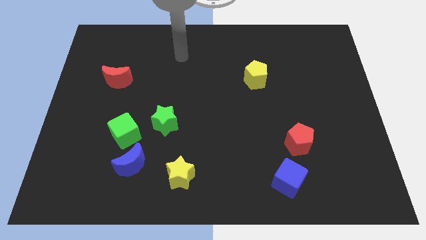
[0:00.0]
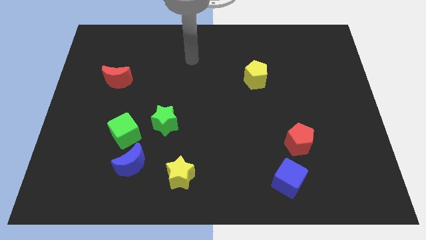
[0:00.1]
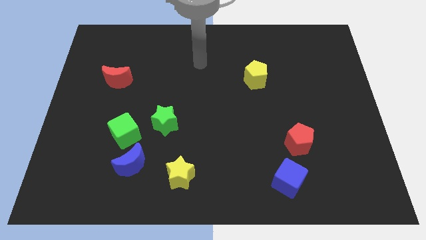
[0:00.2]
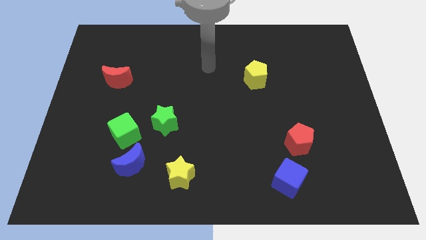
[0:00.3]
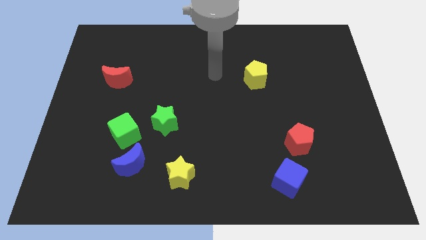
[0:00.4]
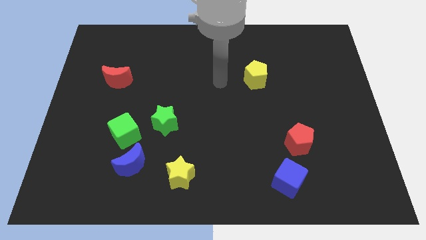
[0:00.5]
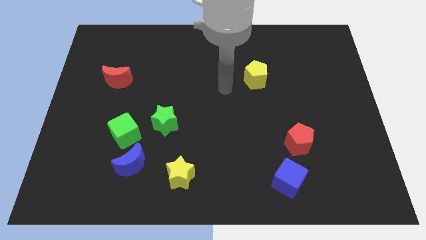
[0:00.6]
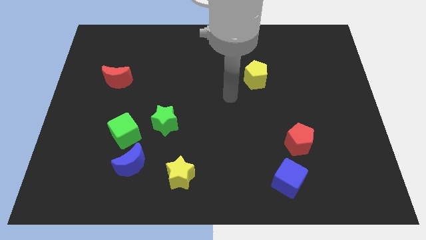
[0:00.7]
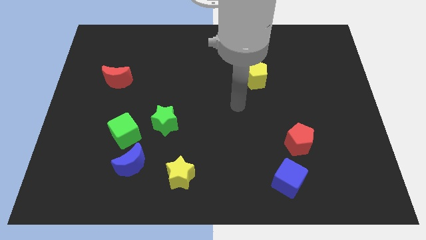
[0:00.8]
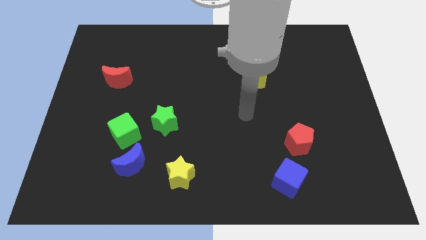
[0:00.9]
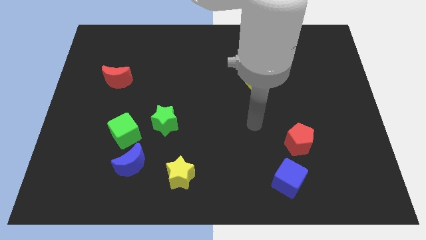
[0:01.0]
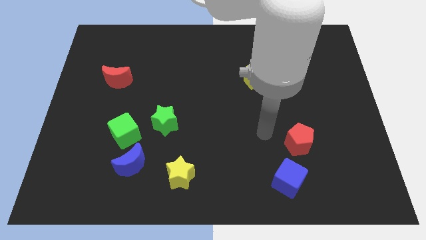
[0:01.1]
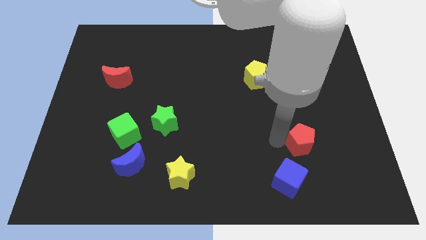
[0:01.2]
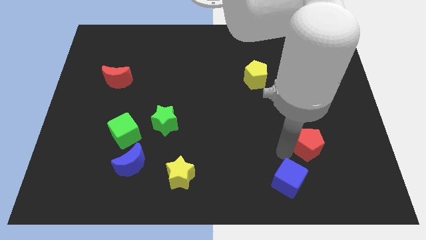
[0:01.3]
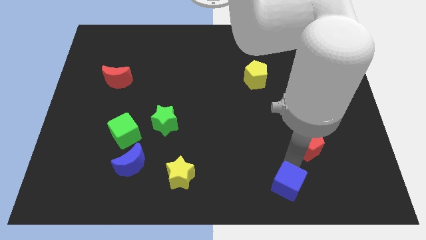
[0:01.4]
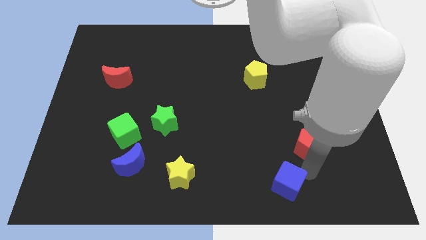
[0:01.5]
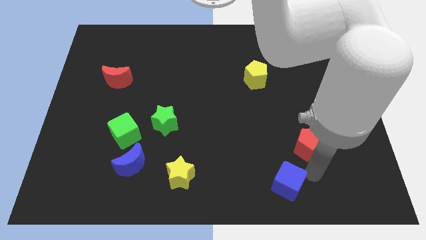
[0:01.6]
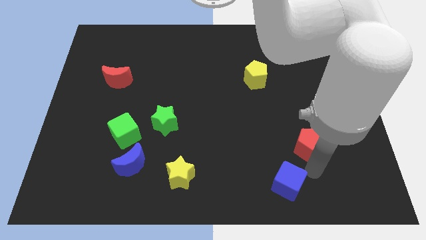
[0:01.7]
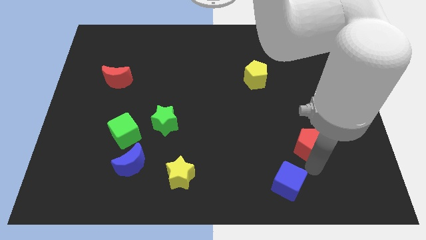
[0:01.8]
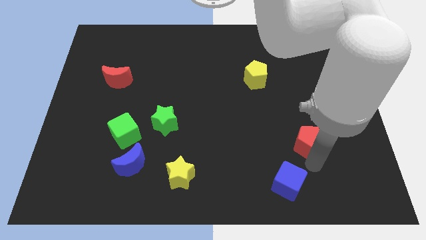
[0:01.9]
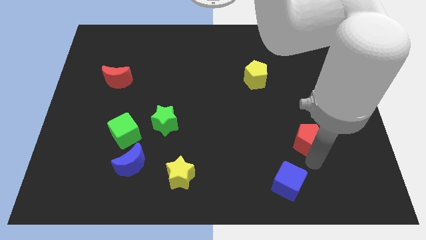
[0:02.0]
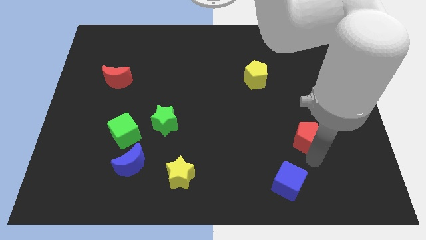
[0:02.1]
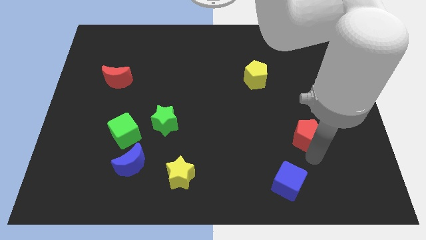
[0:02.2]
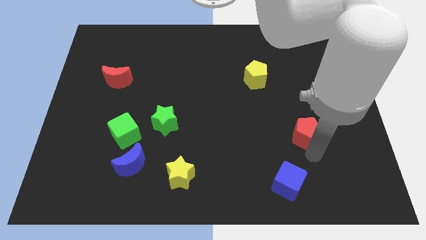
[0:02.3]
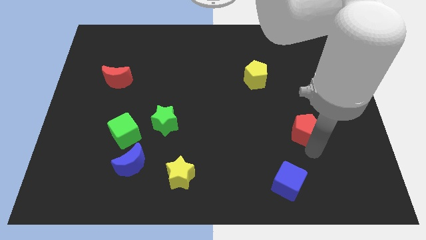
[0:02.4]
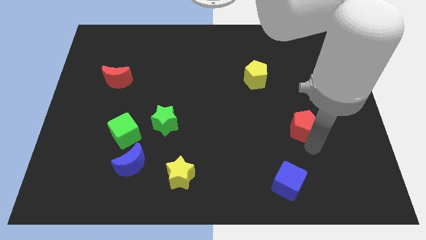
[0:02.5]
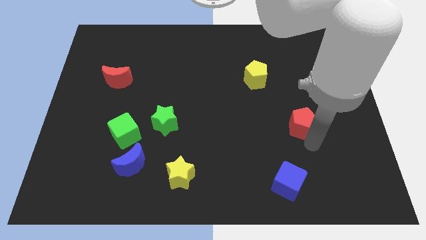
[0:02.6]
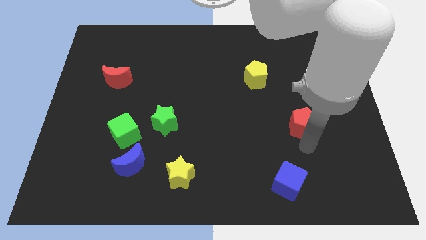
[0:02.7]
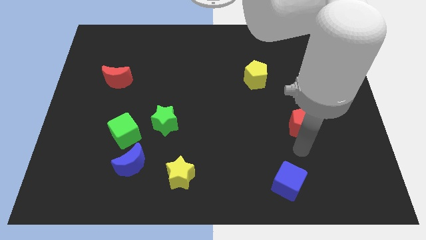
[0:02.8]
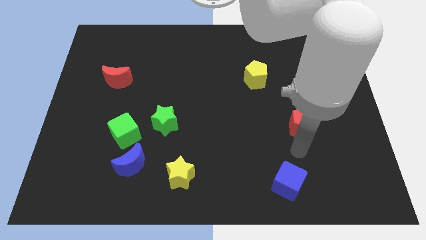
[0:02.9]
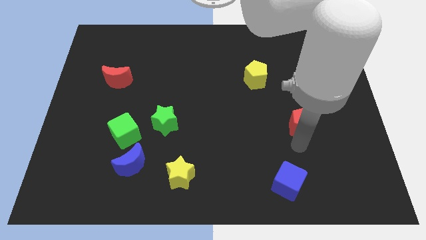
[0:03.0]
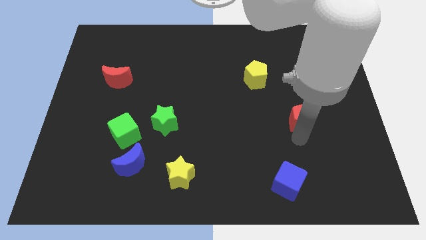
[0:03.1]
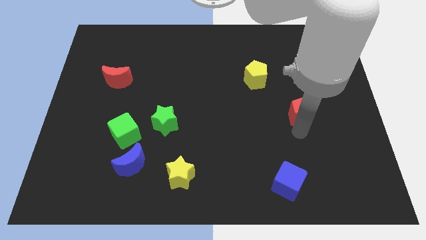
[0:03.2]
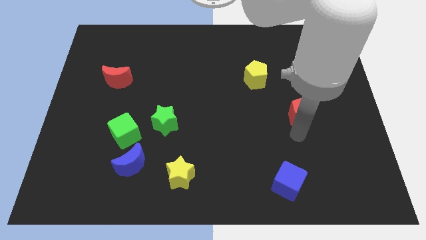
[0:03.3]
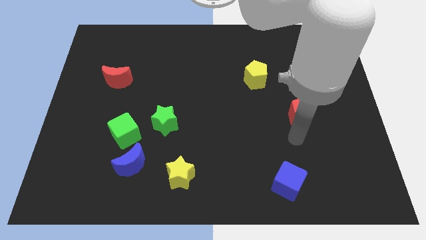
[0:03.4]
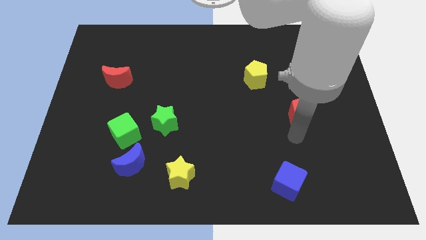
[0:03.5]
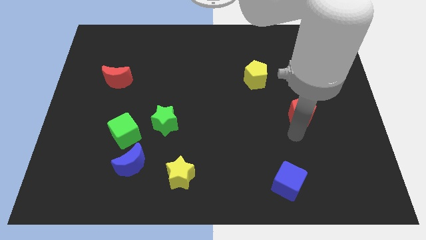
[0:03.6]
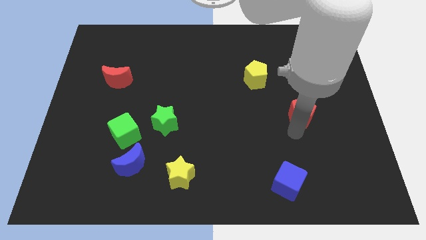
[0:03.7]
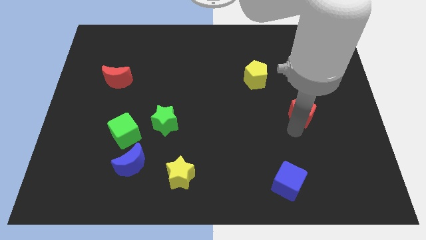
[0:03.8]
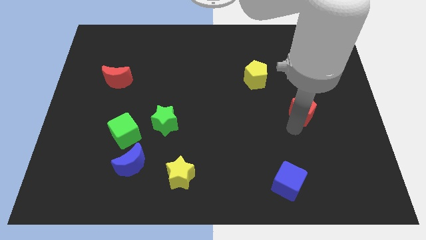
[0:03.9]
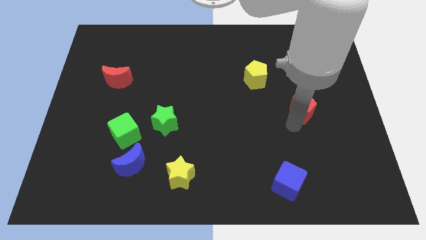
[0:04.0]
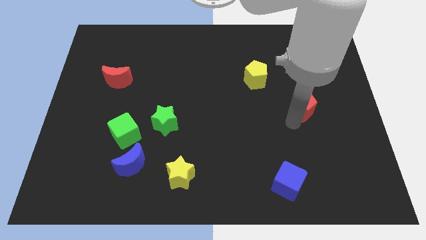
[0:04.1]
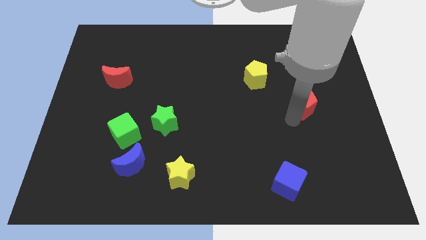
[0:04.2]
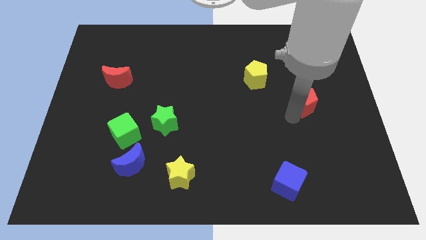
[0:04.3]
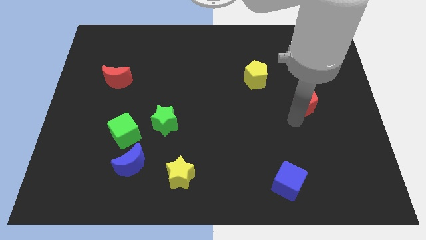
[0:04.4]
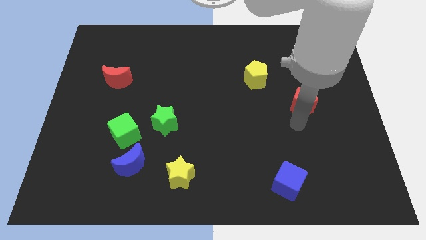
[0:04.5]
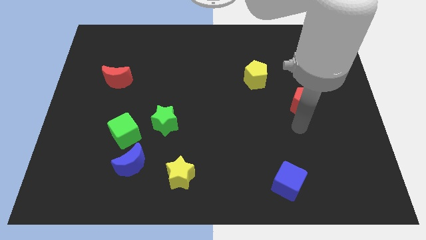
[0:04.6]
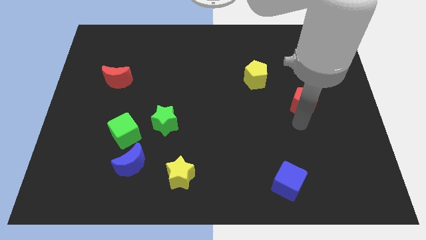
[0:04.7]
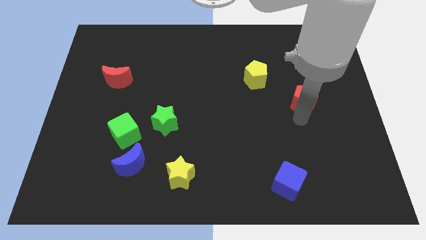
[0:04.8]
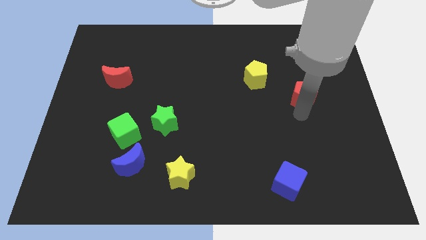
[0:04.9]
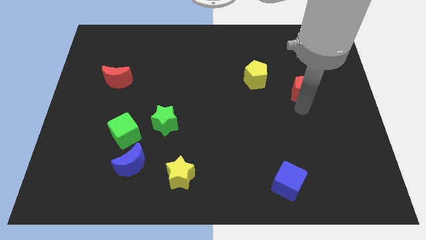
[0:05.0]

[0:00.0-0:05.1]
move the red pentagon just right of the yellow pentagon

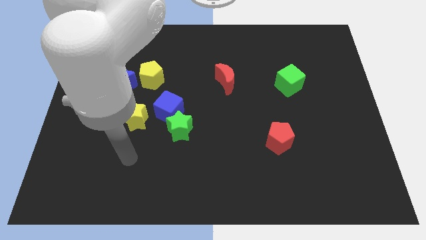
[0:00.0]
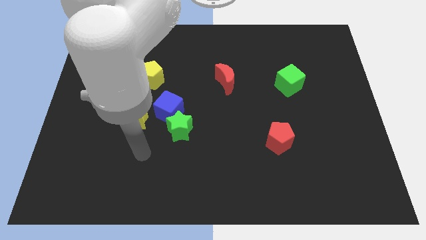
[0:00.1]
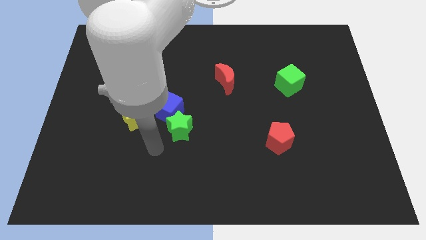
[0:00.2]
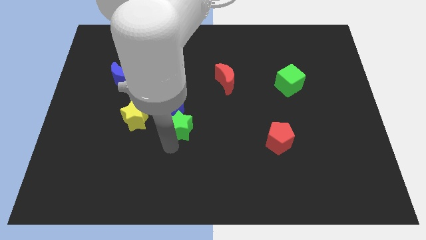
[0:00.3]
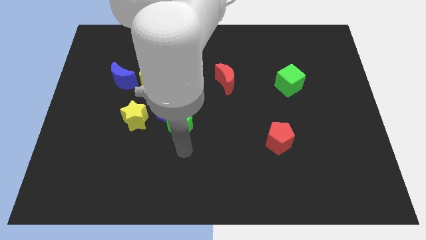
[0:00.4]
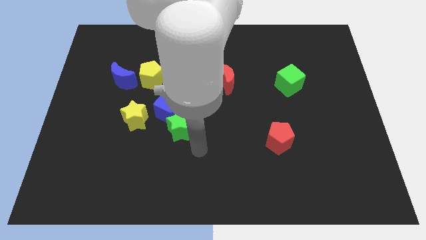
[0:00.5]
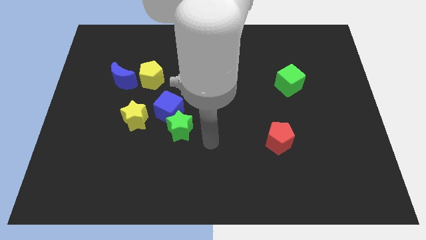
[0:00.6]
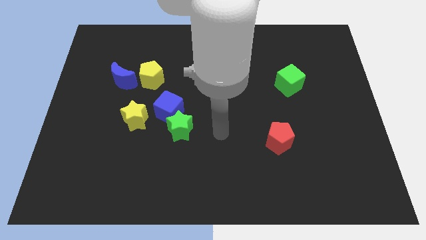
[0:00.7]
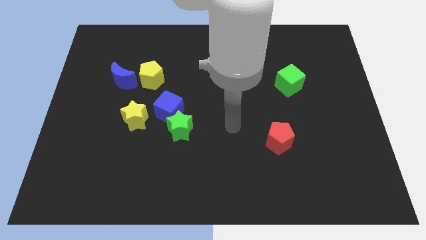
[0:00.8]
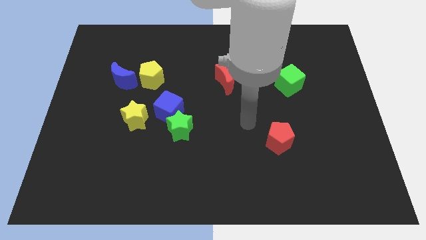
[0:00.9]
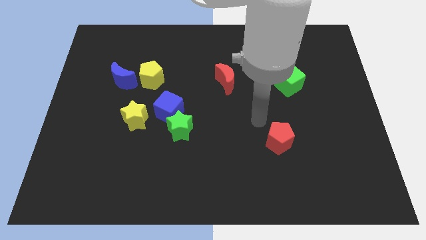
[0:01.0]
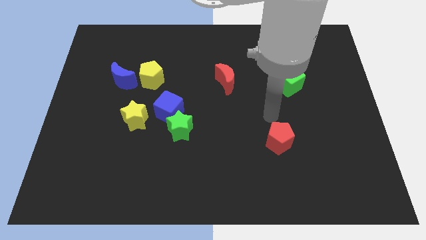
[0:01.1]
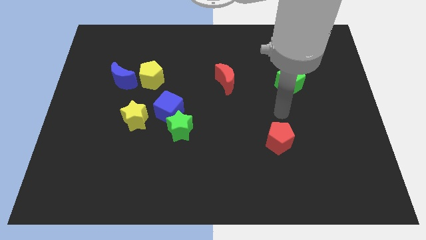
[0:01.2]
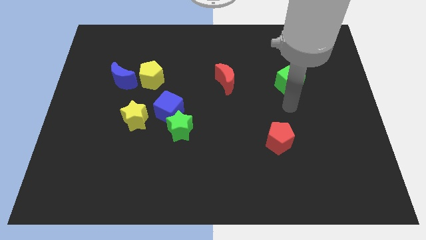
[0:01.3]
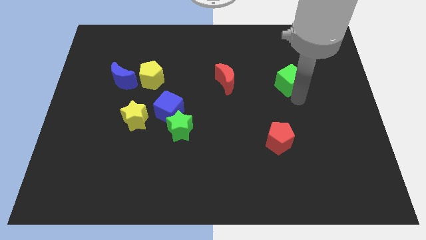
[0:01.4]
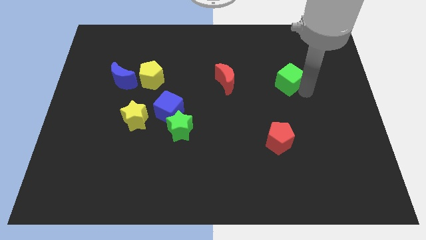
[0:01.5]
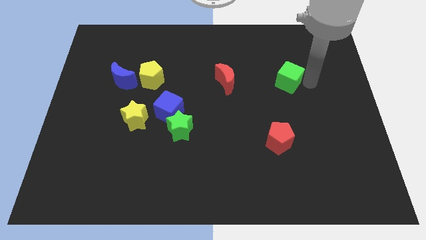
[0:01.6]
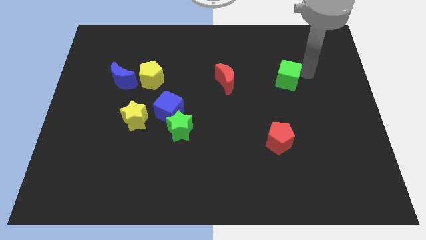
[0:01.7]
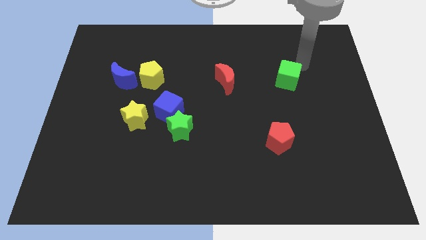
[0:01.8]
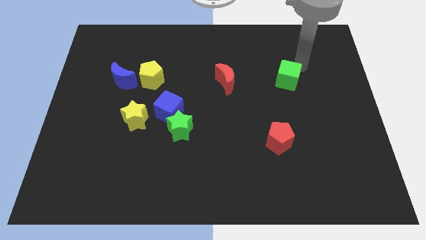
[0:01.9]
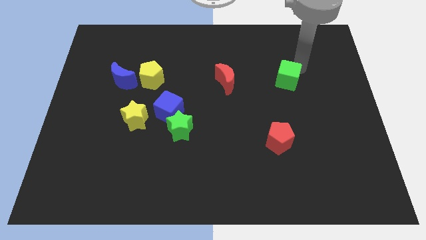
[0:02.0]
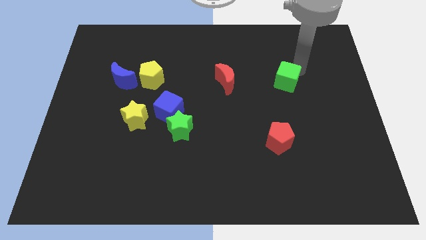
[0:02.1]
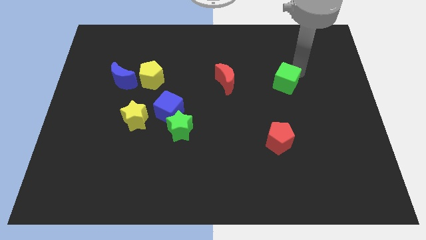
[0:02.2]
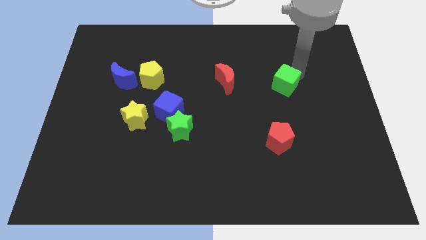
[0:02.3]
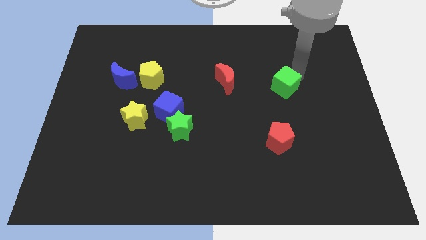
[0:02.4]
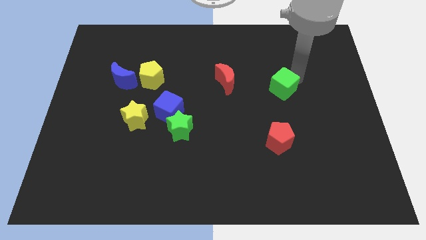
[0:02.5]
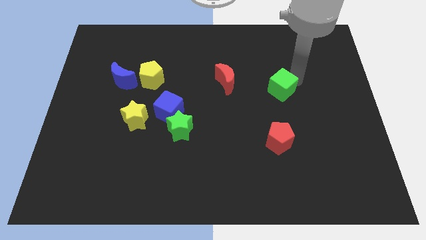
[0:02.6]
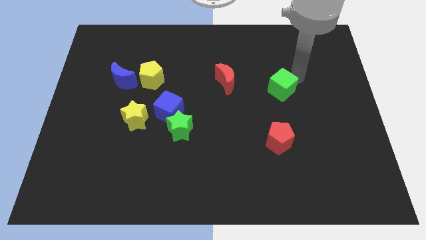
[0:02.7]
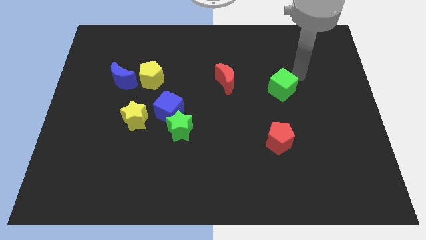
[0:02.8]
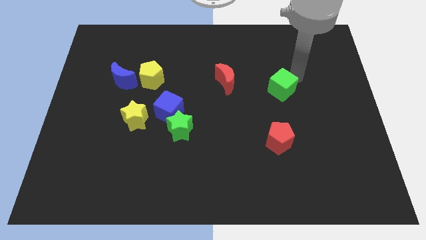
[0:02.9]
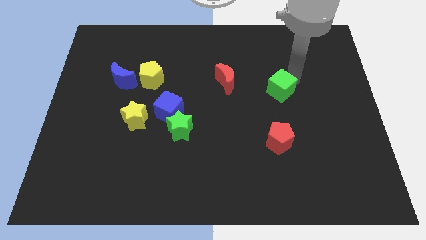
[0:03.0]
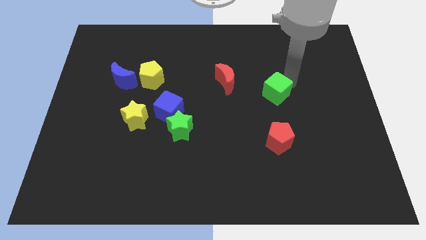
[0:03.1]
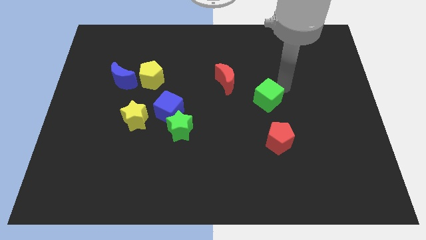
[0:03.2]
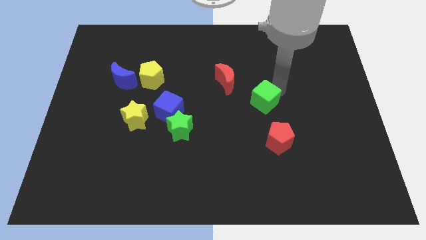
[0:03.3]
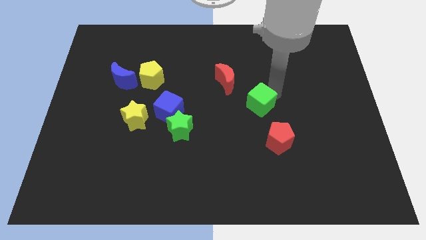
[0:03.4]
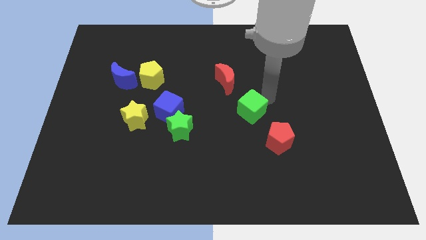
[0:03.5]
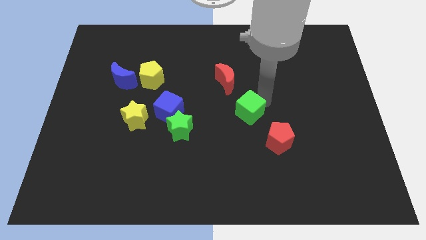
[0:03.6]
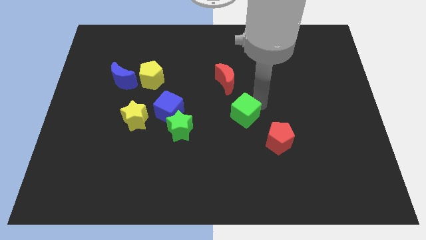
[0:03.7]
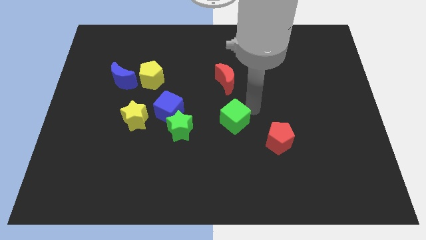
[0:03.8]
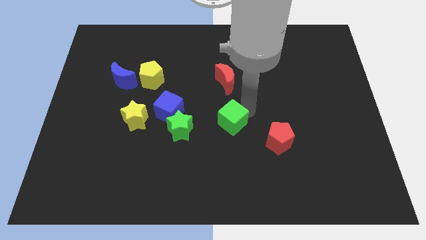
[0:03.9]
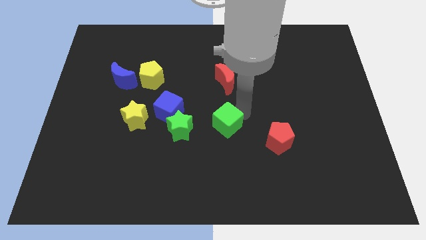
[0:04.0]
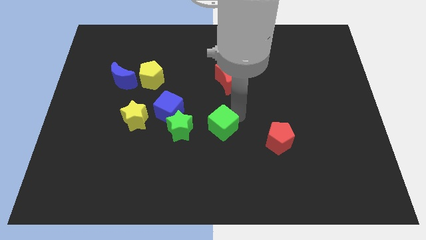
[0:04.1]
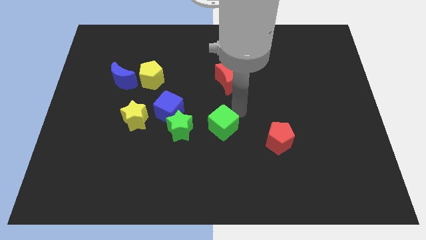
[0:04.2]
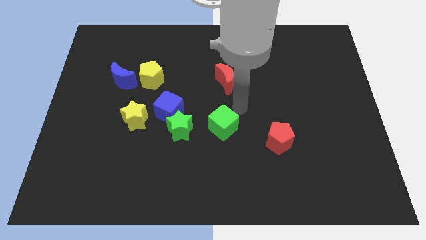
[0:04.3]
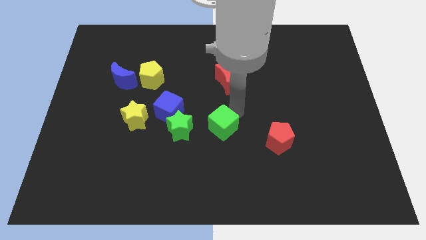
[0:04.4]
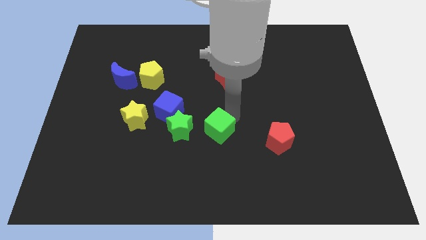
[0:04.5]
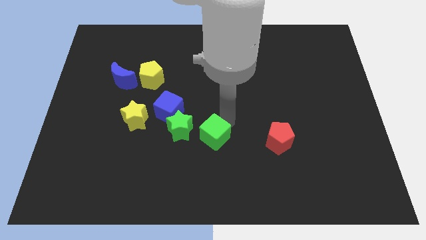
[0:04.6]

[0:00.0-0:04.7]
move the green cube to the bottom right side of the green star
